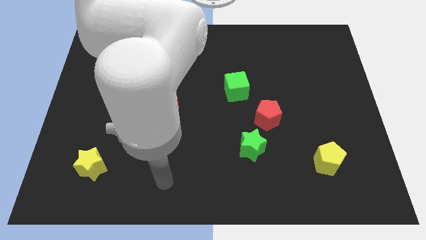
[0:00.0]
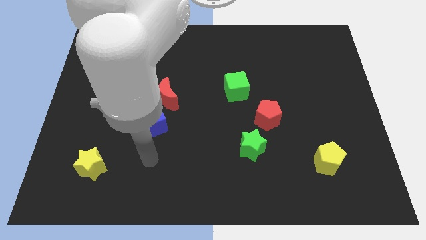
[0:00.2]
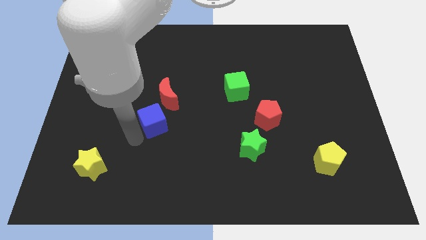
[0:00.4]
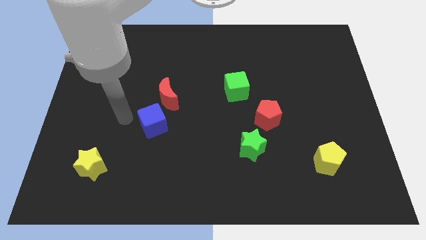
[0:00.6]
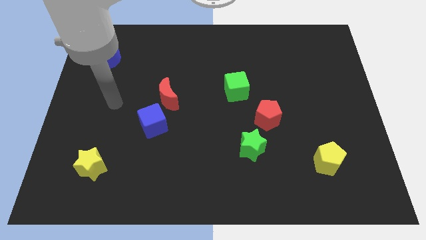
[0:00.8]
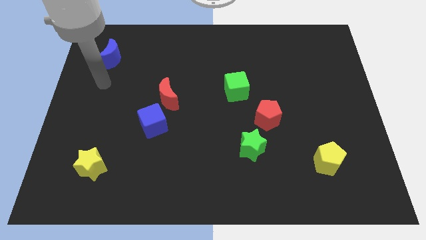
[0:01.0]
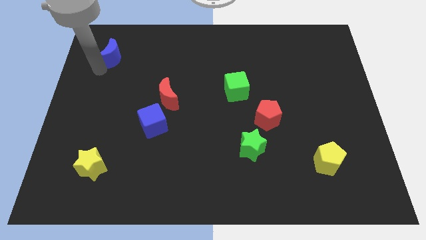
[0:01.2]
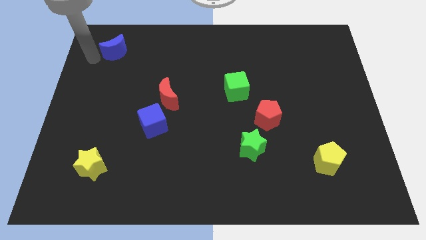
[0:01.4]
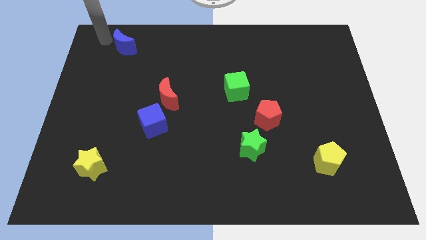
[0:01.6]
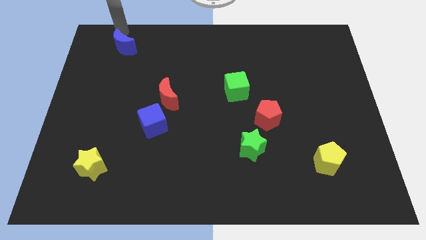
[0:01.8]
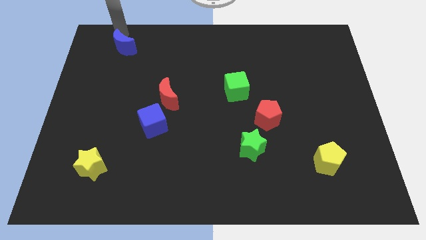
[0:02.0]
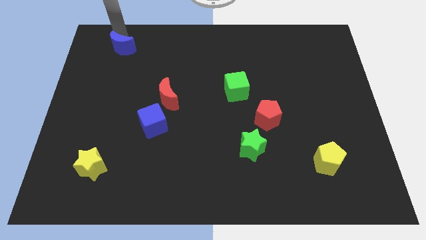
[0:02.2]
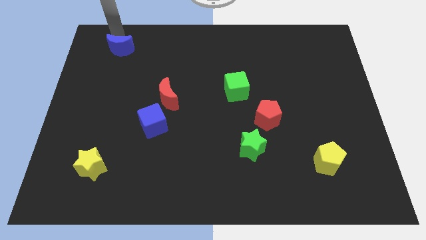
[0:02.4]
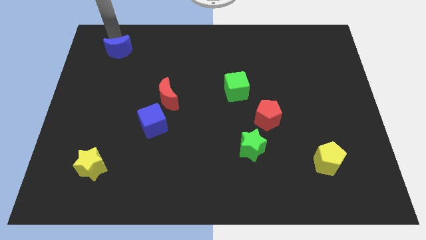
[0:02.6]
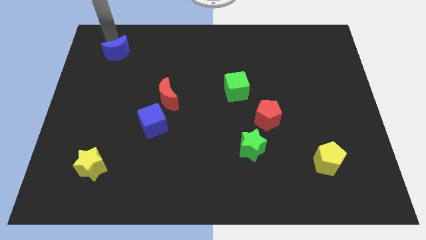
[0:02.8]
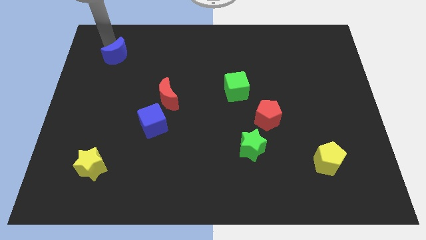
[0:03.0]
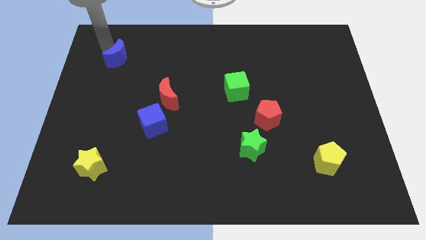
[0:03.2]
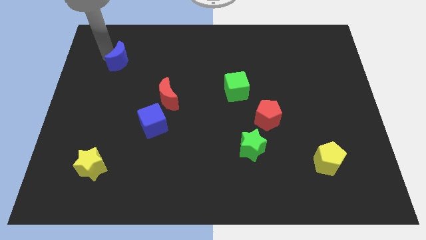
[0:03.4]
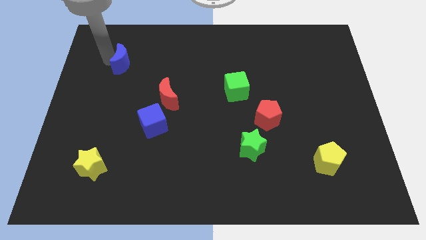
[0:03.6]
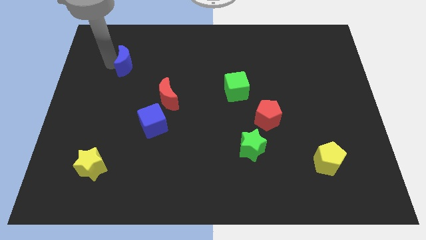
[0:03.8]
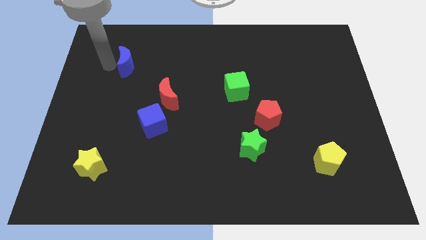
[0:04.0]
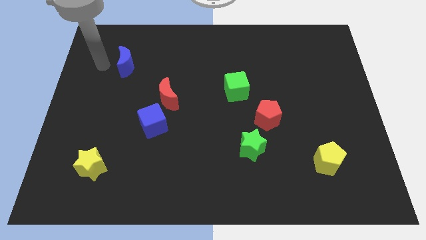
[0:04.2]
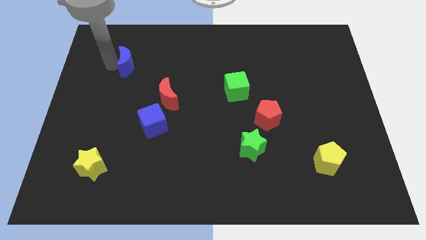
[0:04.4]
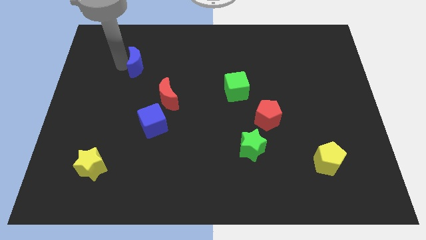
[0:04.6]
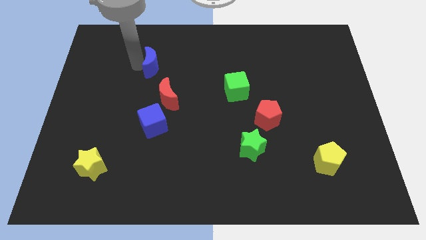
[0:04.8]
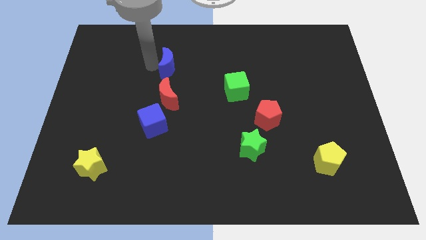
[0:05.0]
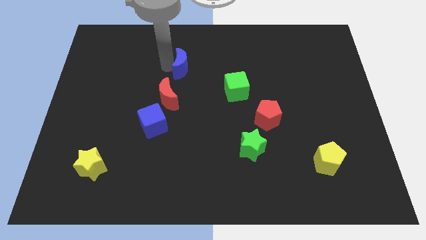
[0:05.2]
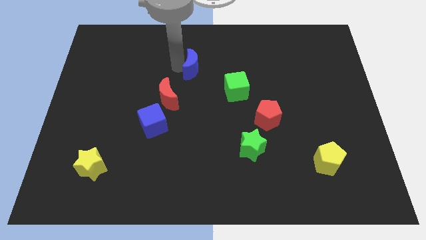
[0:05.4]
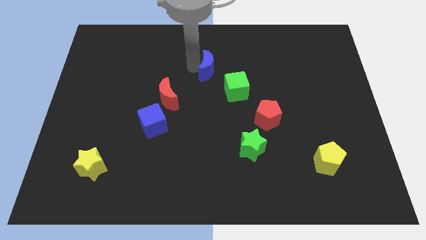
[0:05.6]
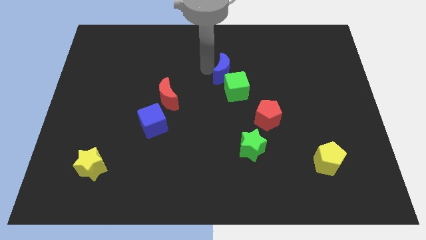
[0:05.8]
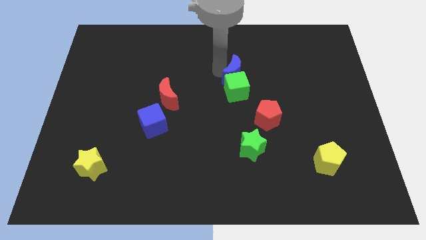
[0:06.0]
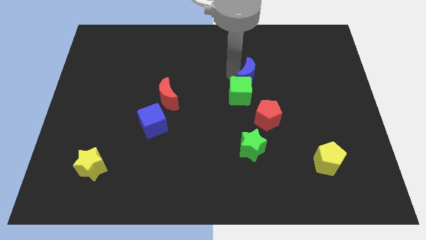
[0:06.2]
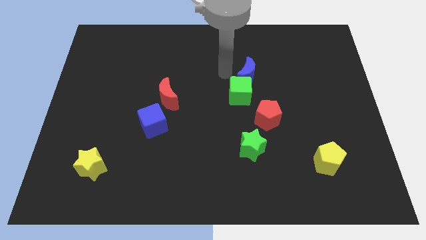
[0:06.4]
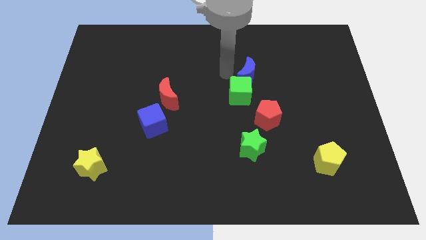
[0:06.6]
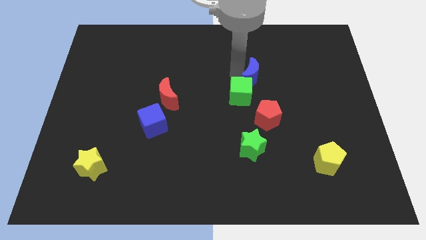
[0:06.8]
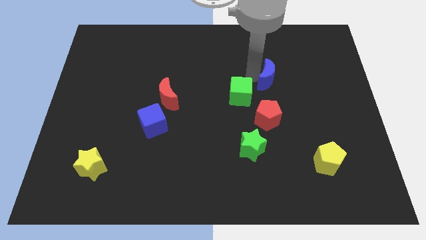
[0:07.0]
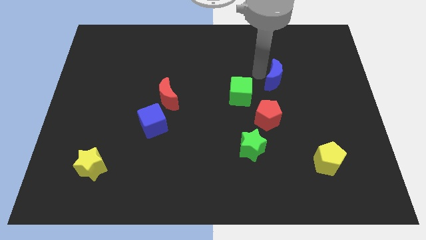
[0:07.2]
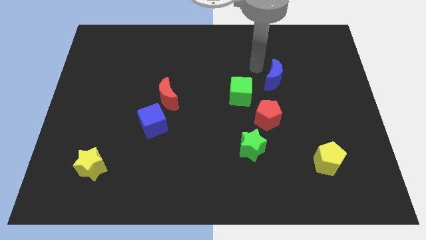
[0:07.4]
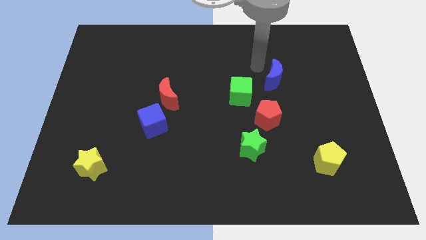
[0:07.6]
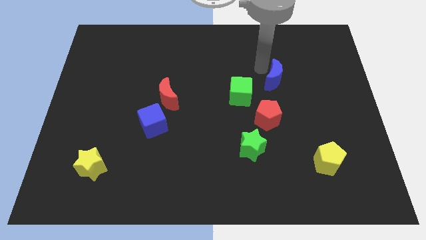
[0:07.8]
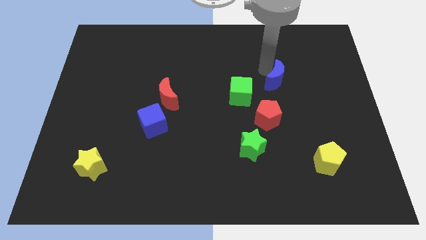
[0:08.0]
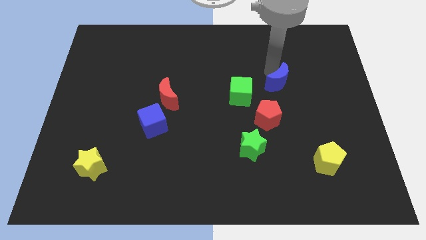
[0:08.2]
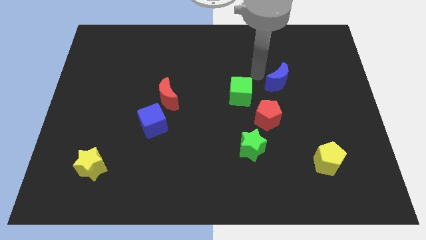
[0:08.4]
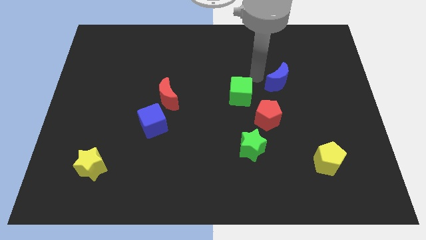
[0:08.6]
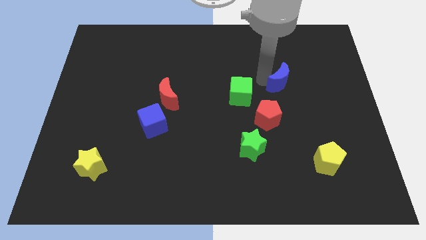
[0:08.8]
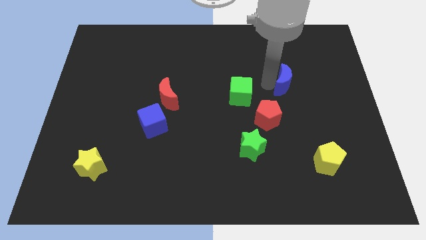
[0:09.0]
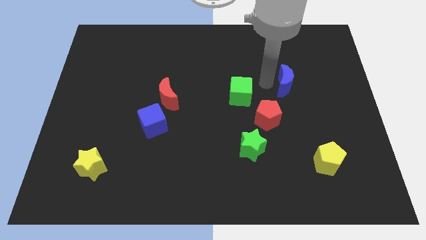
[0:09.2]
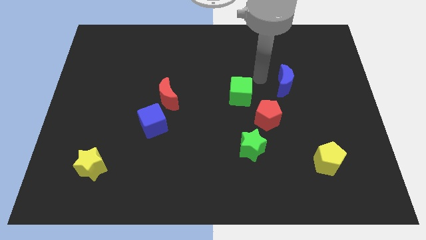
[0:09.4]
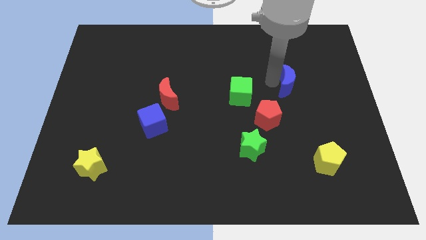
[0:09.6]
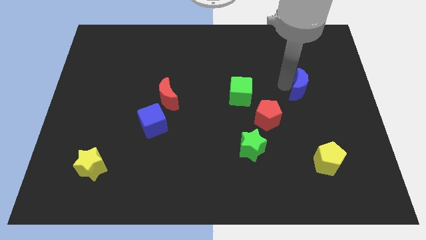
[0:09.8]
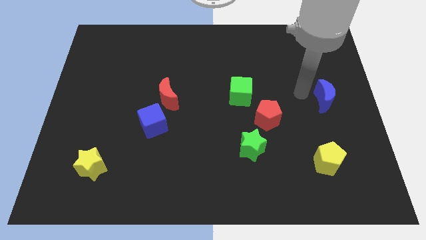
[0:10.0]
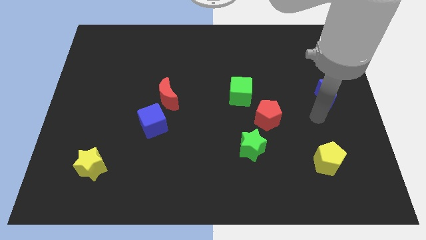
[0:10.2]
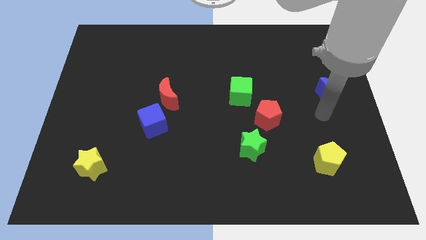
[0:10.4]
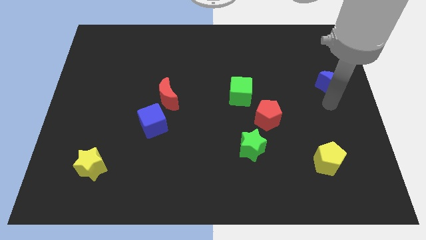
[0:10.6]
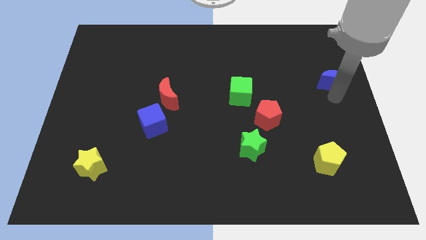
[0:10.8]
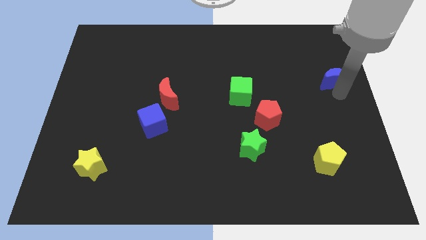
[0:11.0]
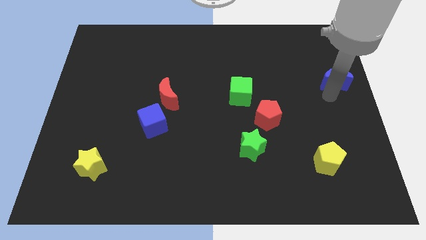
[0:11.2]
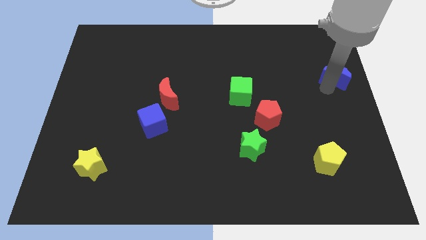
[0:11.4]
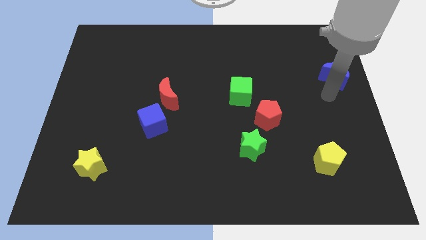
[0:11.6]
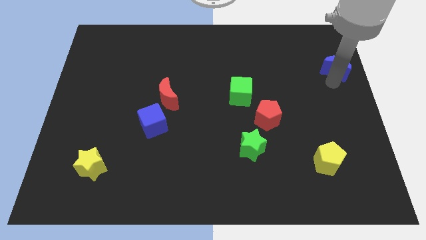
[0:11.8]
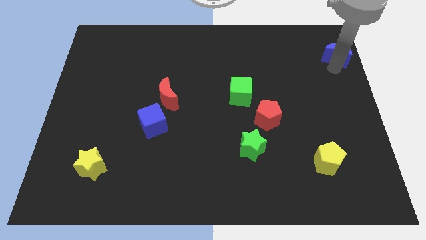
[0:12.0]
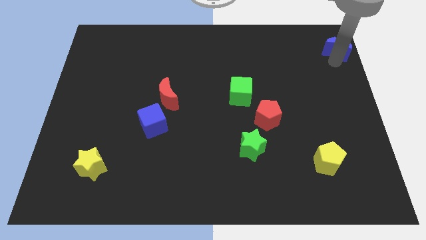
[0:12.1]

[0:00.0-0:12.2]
put the blue moon to the top right of the board

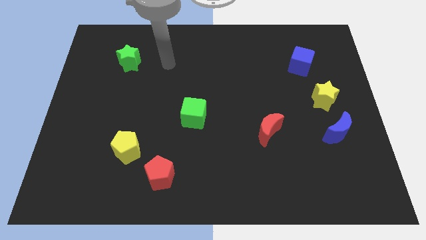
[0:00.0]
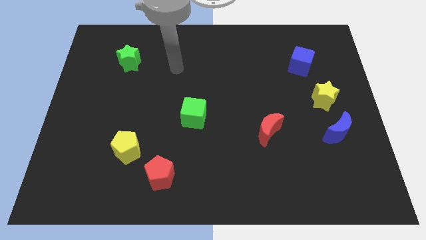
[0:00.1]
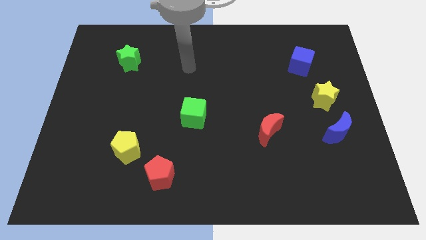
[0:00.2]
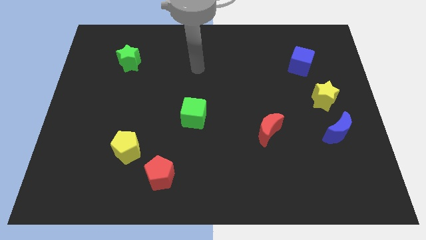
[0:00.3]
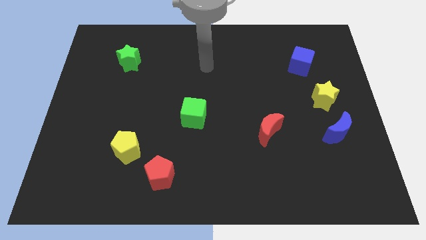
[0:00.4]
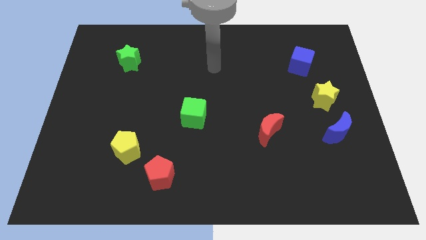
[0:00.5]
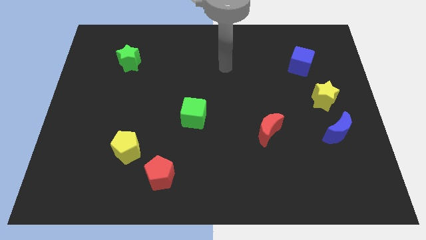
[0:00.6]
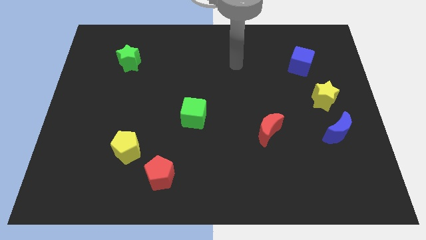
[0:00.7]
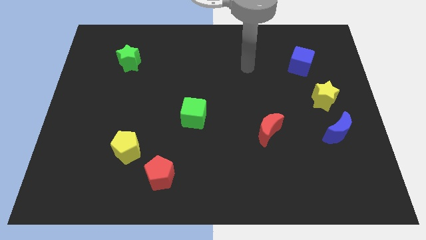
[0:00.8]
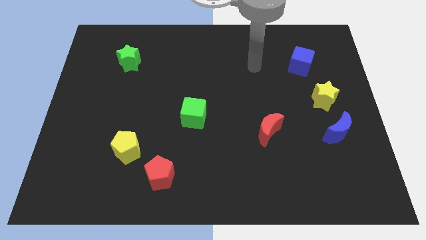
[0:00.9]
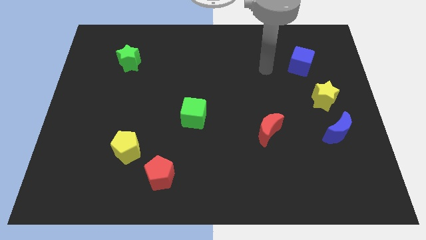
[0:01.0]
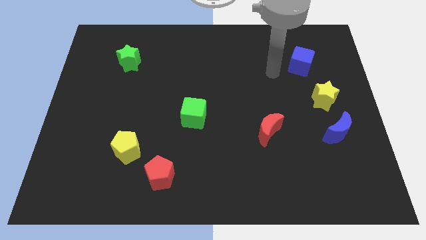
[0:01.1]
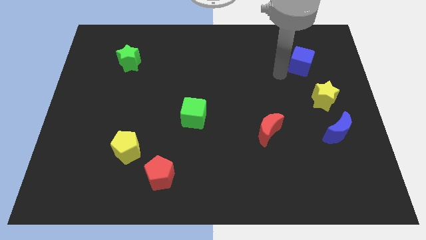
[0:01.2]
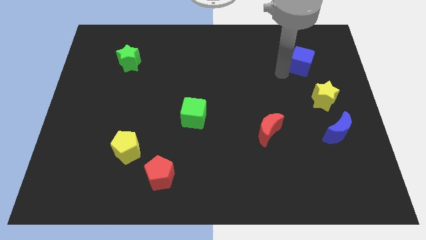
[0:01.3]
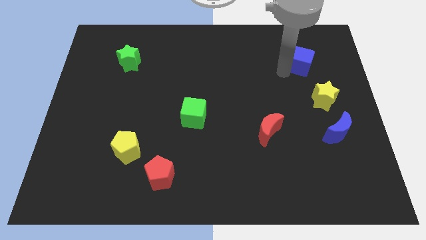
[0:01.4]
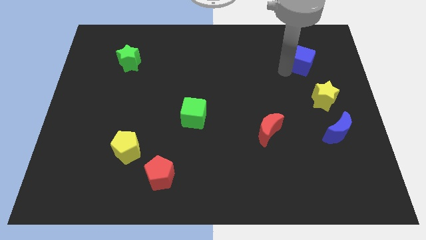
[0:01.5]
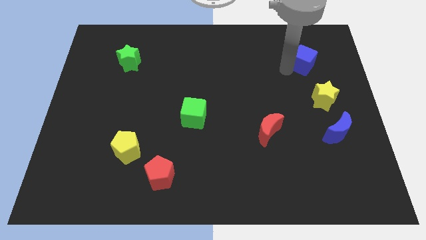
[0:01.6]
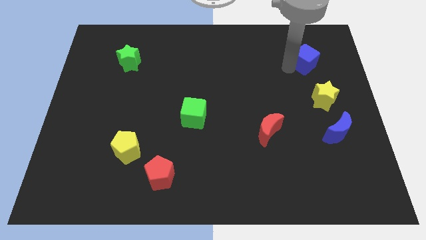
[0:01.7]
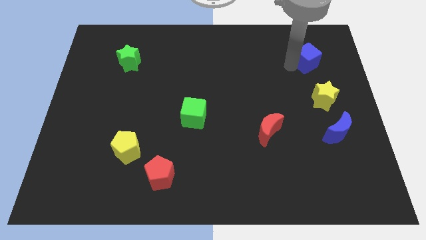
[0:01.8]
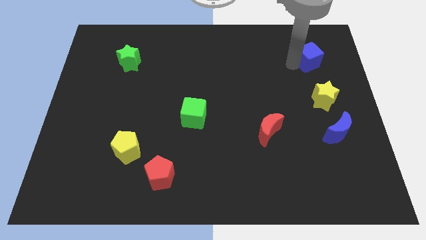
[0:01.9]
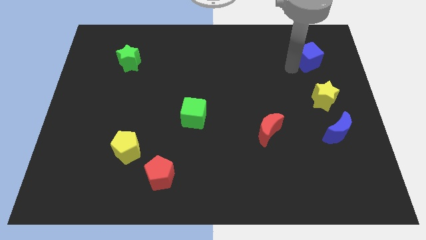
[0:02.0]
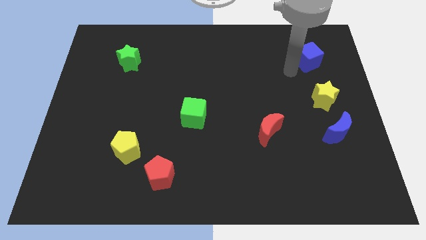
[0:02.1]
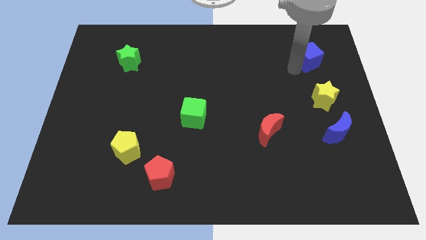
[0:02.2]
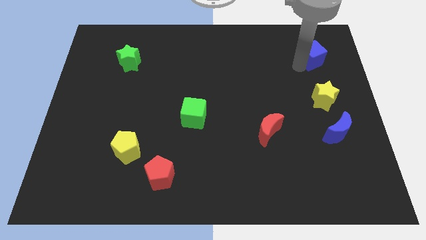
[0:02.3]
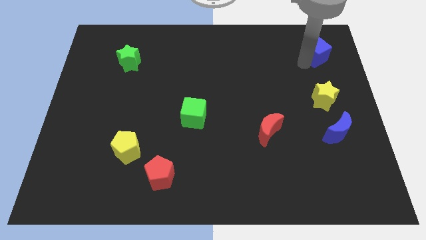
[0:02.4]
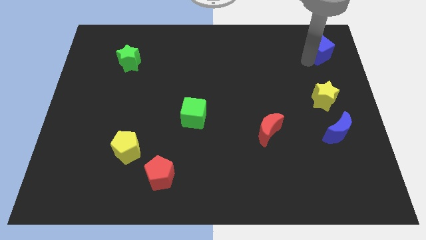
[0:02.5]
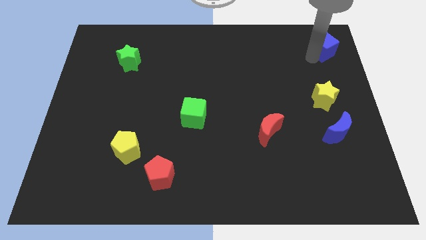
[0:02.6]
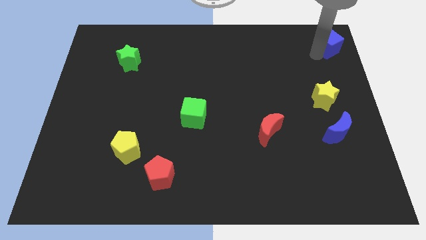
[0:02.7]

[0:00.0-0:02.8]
push the blue cube to the top right corner
